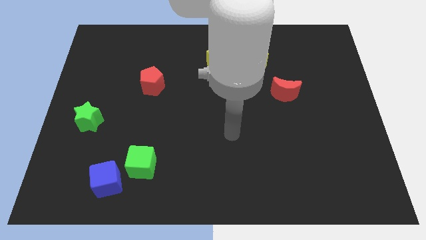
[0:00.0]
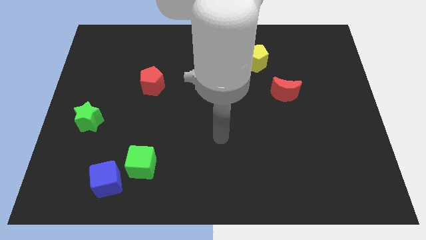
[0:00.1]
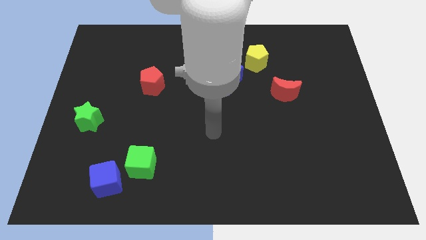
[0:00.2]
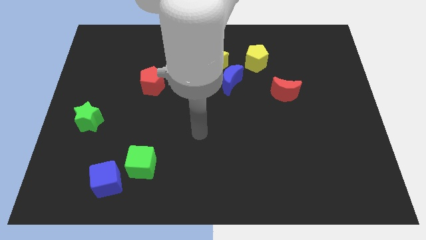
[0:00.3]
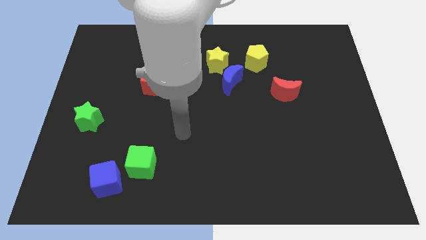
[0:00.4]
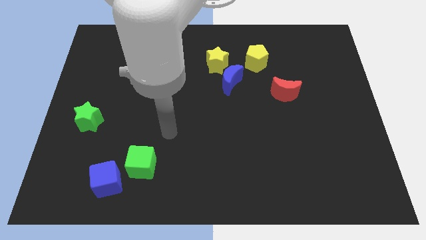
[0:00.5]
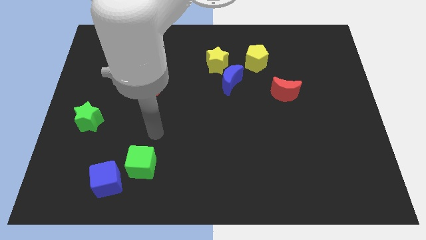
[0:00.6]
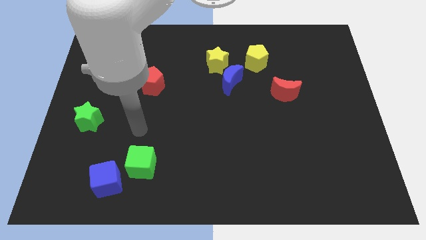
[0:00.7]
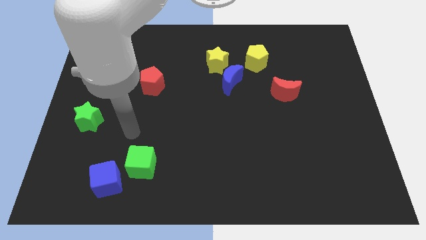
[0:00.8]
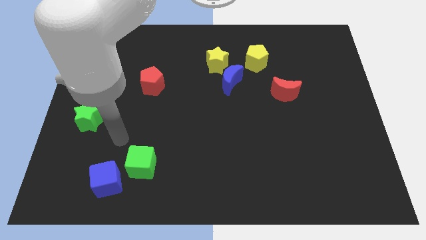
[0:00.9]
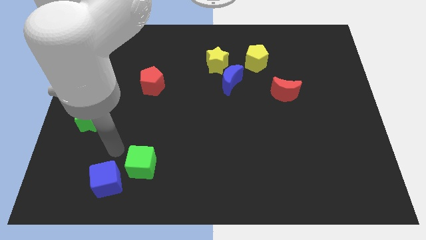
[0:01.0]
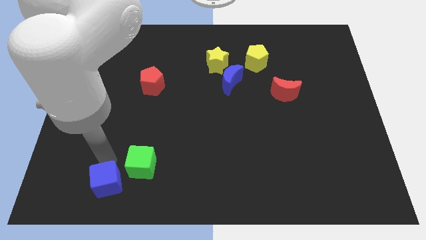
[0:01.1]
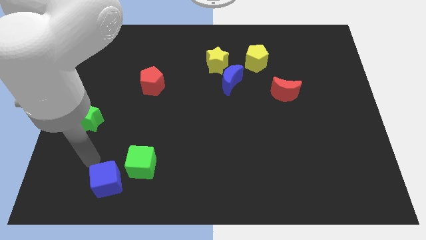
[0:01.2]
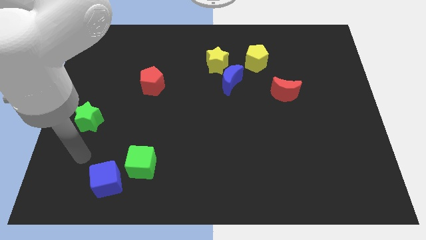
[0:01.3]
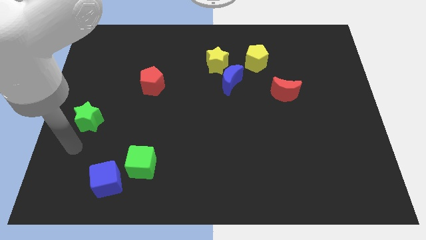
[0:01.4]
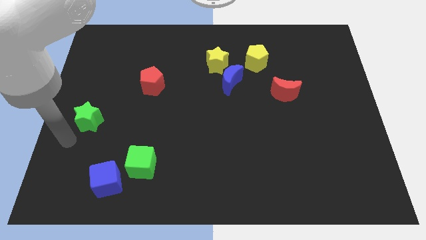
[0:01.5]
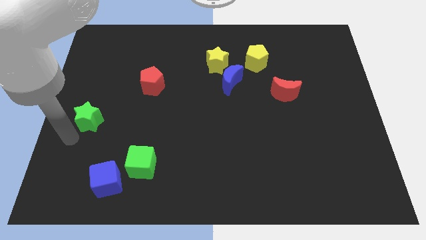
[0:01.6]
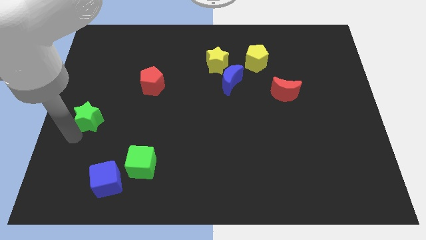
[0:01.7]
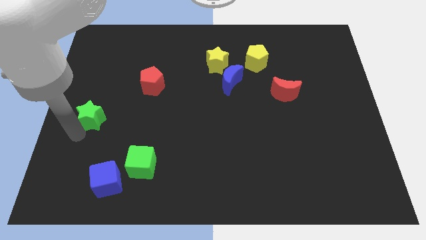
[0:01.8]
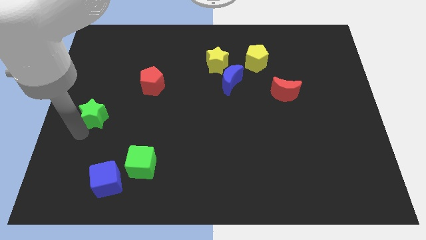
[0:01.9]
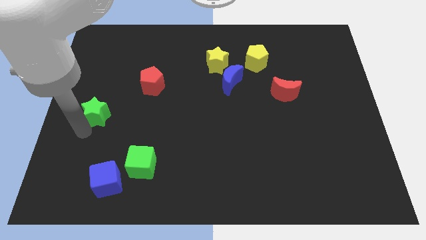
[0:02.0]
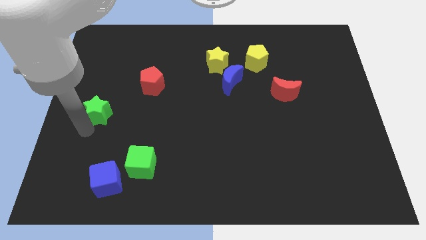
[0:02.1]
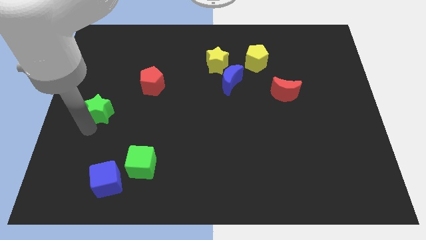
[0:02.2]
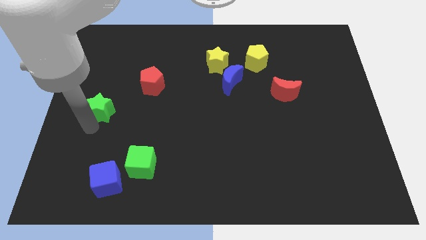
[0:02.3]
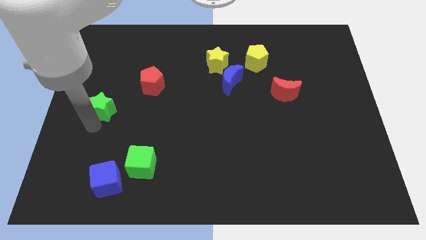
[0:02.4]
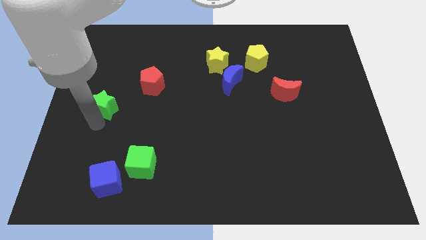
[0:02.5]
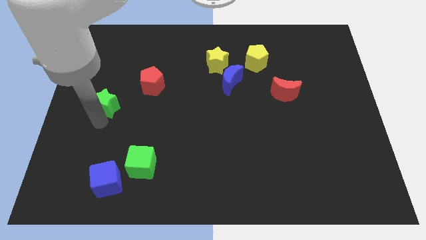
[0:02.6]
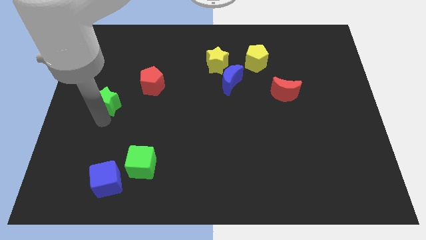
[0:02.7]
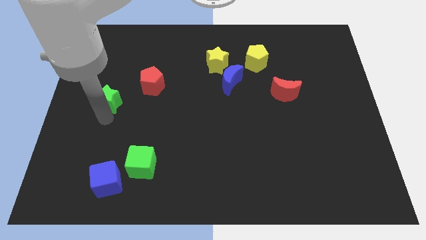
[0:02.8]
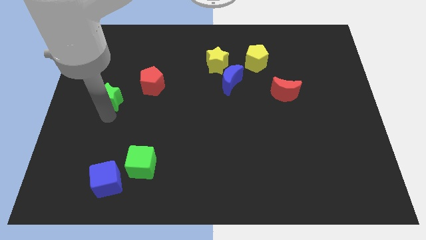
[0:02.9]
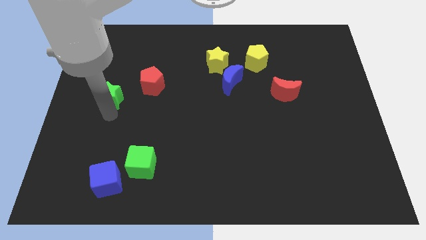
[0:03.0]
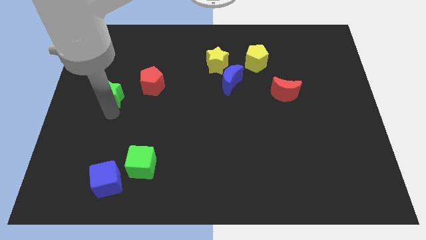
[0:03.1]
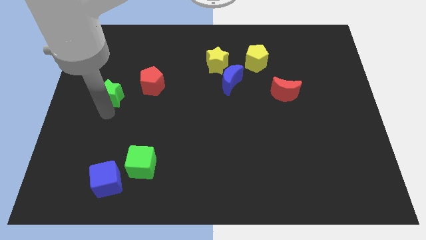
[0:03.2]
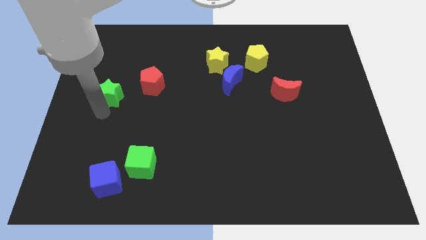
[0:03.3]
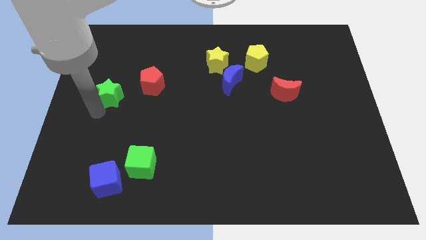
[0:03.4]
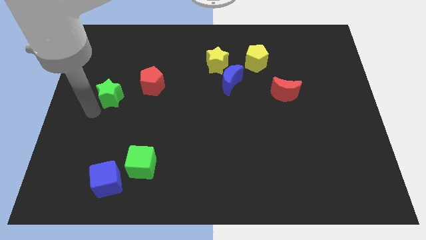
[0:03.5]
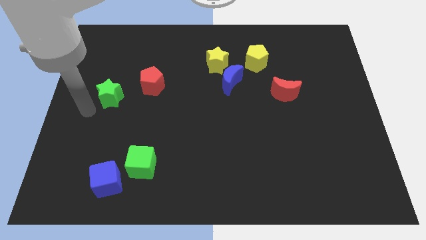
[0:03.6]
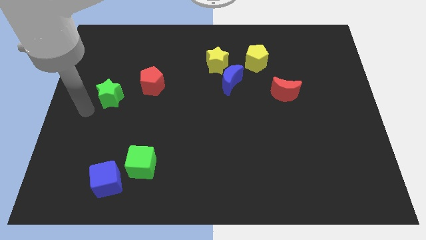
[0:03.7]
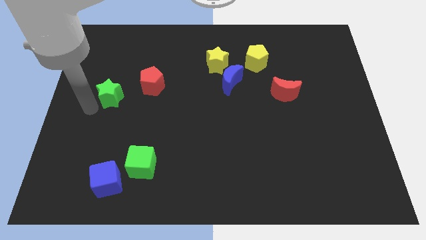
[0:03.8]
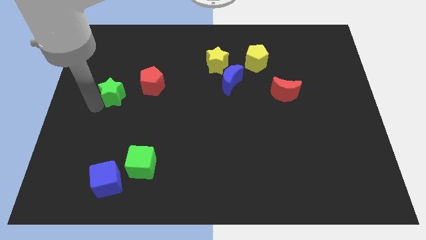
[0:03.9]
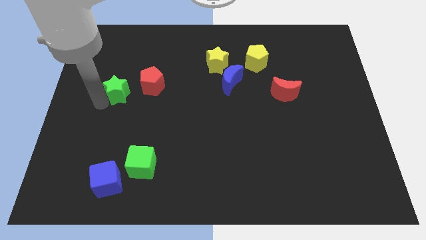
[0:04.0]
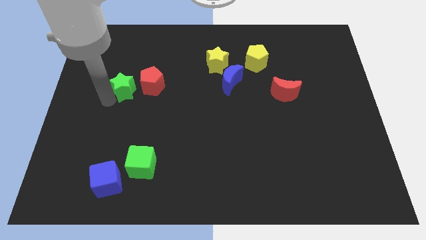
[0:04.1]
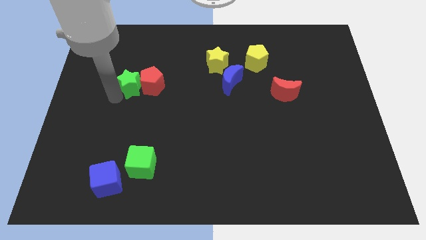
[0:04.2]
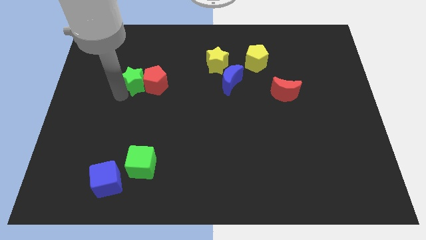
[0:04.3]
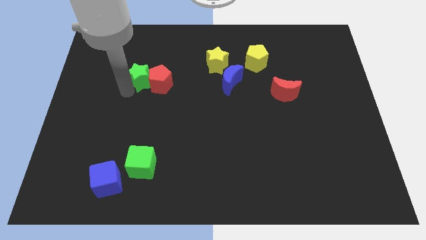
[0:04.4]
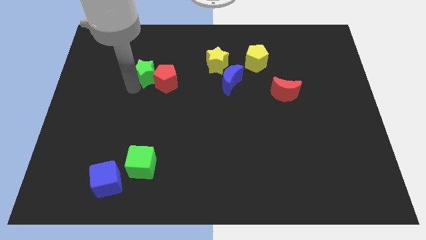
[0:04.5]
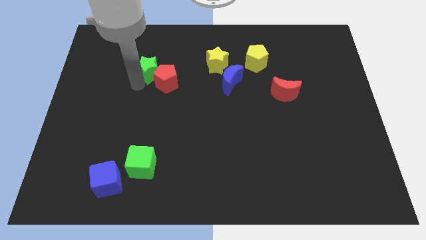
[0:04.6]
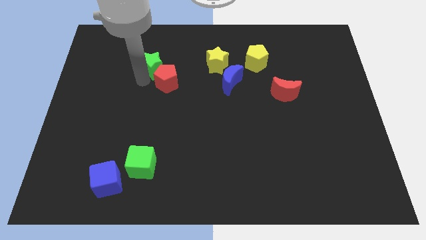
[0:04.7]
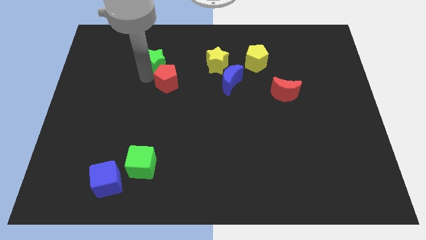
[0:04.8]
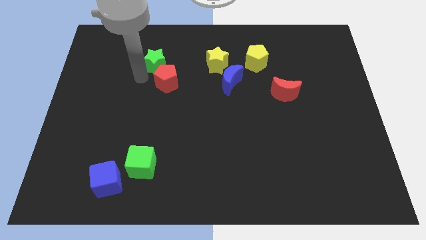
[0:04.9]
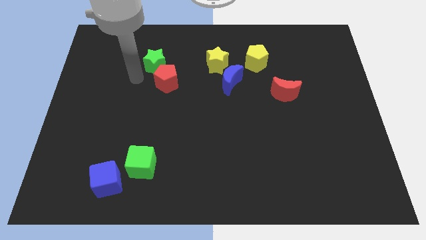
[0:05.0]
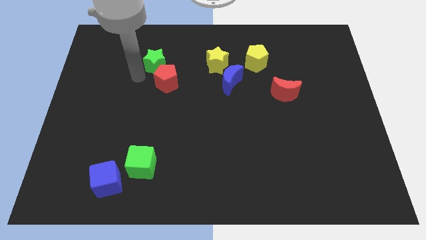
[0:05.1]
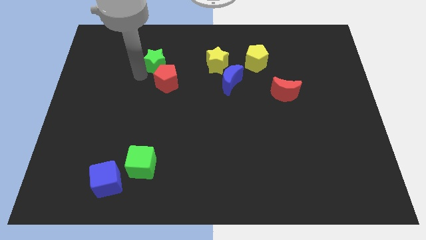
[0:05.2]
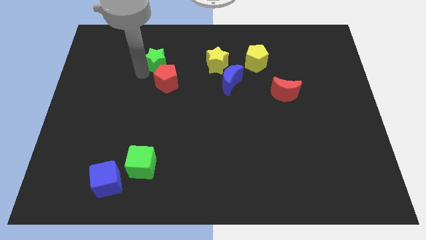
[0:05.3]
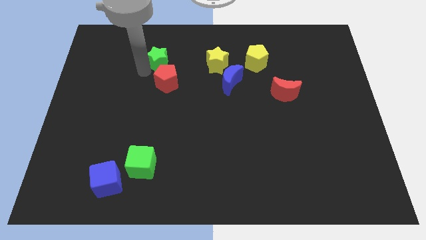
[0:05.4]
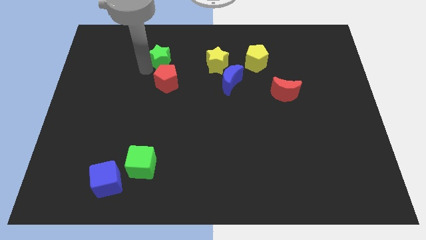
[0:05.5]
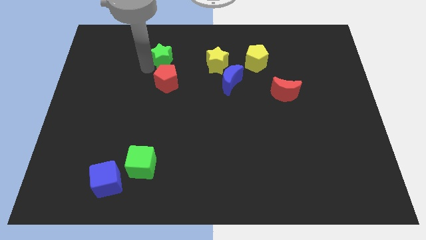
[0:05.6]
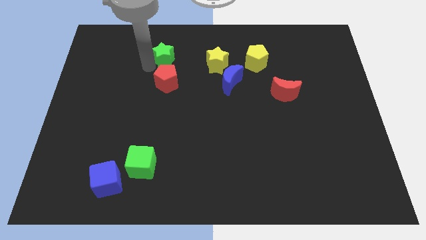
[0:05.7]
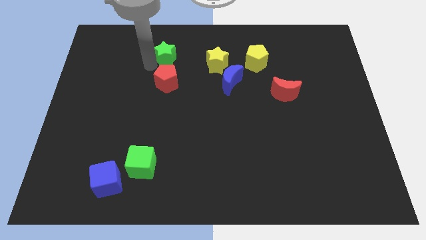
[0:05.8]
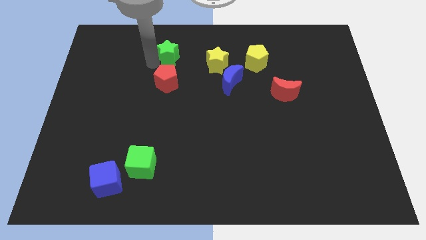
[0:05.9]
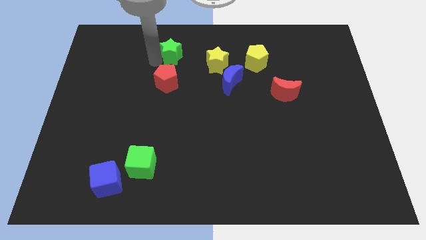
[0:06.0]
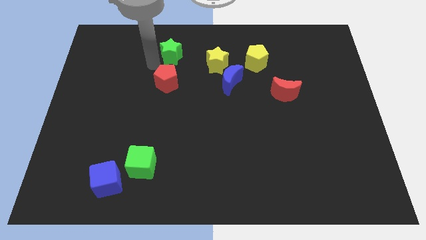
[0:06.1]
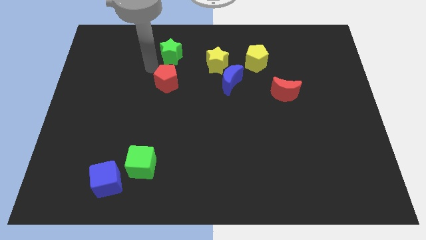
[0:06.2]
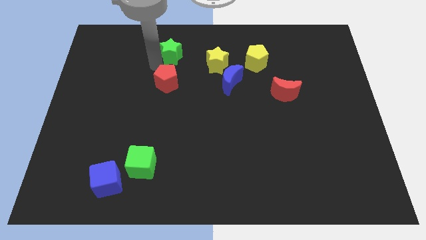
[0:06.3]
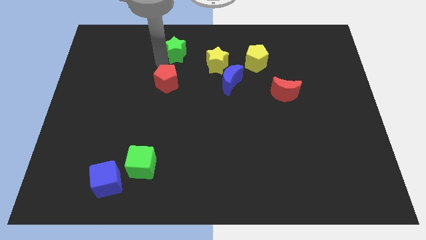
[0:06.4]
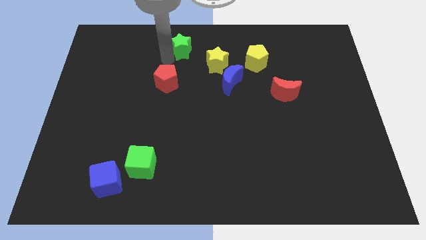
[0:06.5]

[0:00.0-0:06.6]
move the green star to the top side

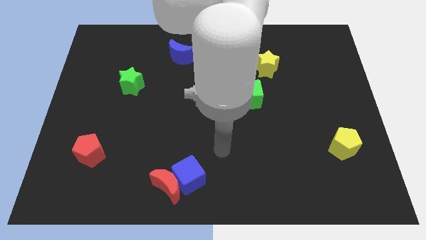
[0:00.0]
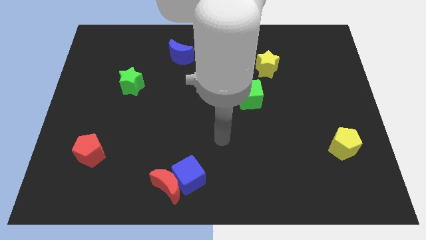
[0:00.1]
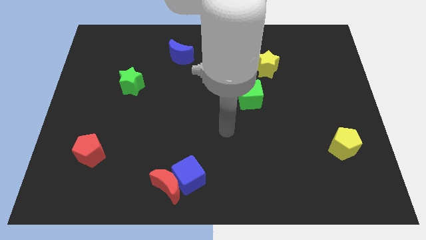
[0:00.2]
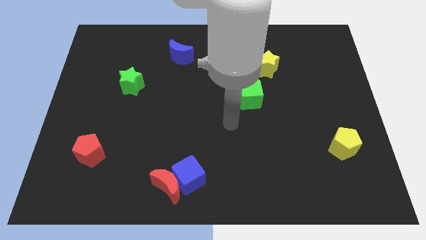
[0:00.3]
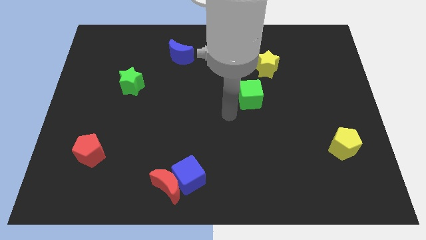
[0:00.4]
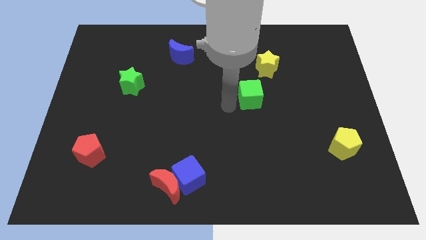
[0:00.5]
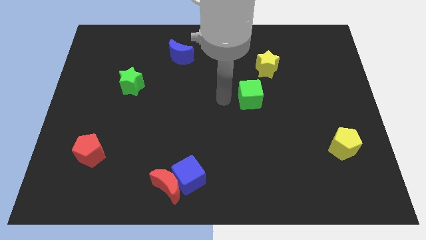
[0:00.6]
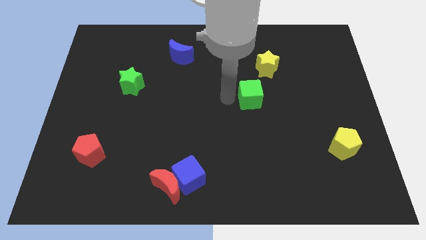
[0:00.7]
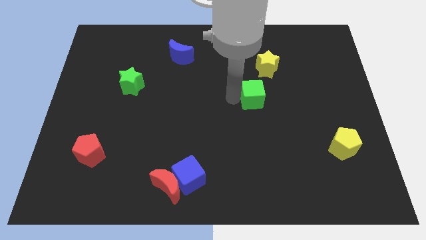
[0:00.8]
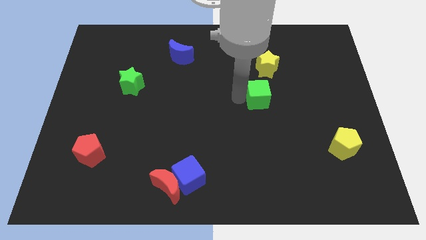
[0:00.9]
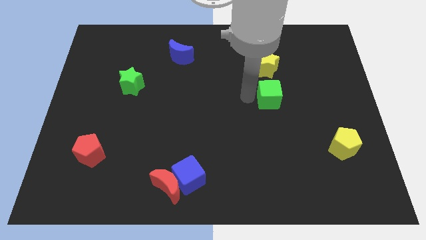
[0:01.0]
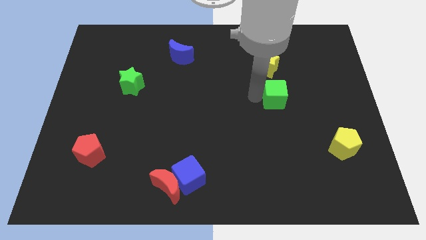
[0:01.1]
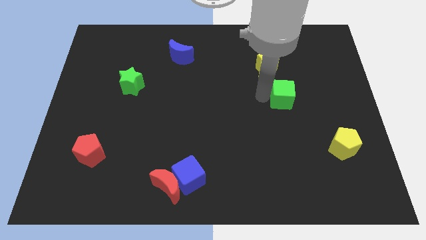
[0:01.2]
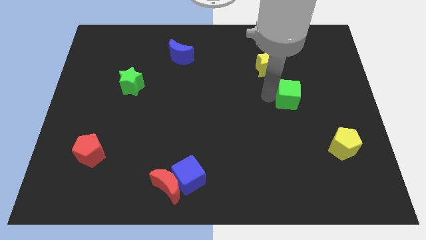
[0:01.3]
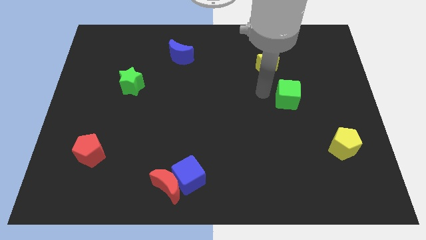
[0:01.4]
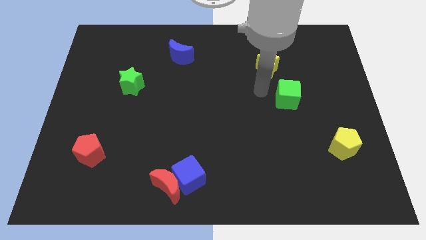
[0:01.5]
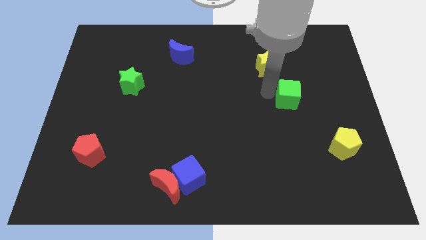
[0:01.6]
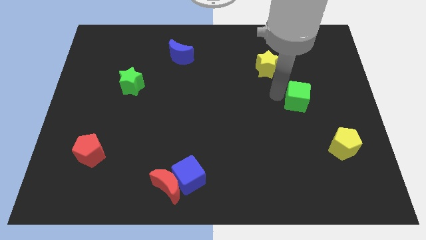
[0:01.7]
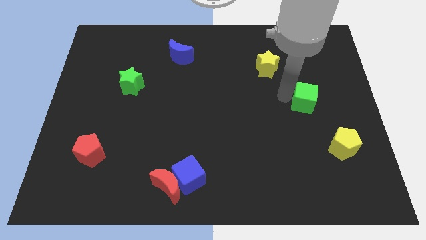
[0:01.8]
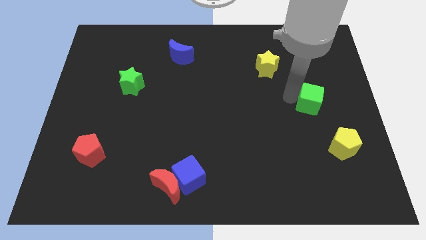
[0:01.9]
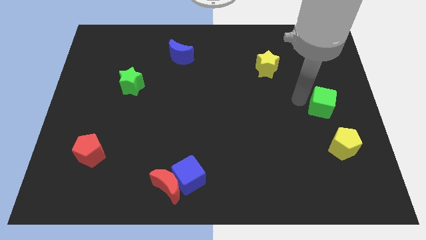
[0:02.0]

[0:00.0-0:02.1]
put the green cube to the right side of the board
